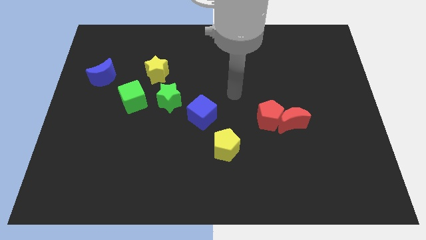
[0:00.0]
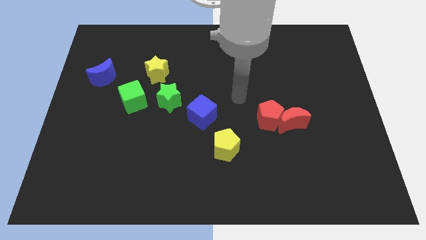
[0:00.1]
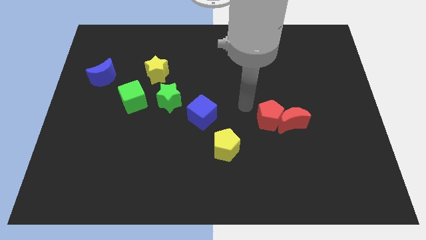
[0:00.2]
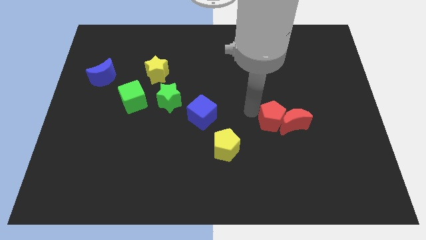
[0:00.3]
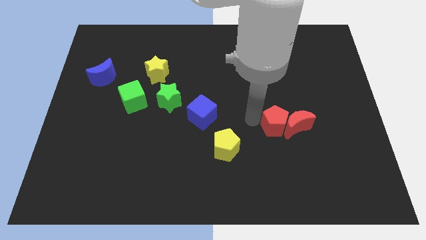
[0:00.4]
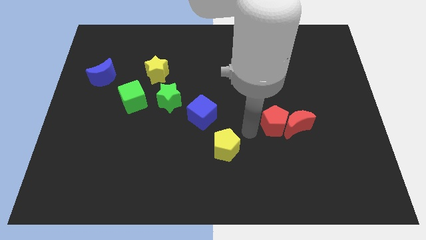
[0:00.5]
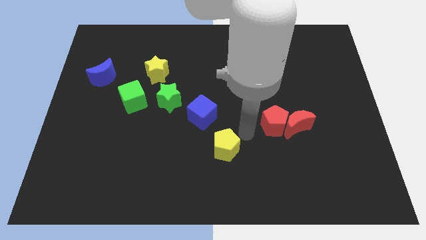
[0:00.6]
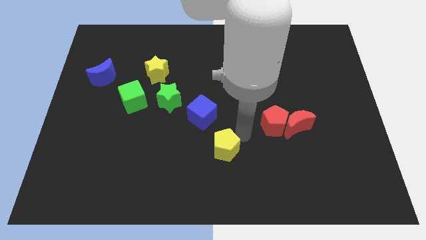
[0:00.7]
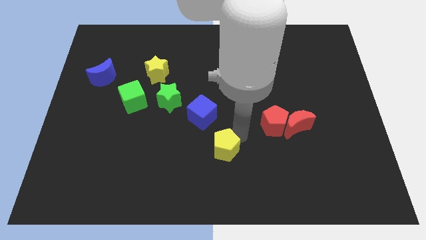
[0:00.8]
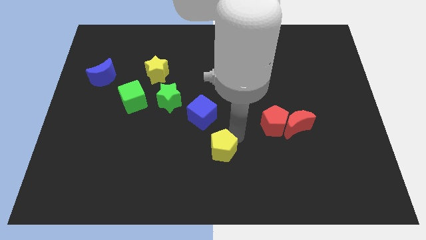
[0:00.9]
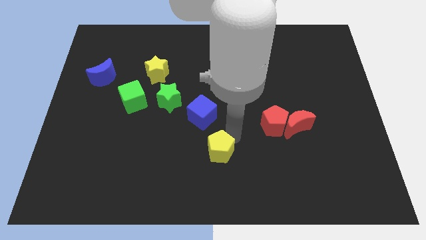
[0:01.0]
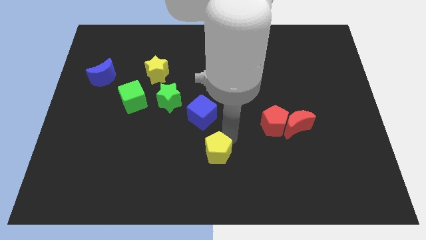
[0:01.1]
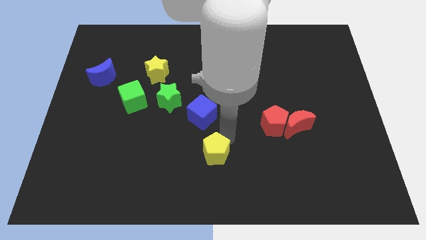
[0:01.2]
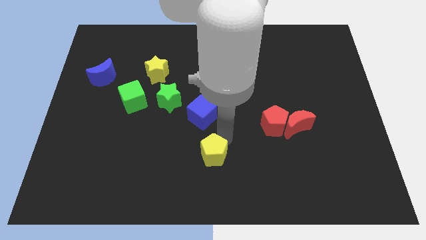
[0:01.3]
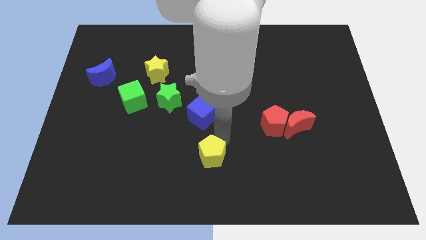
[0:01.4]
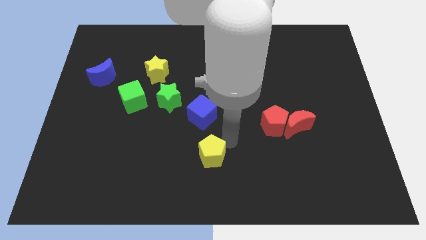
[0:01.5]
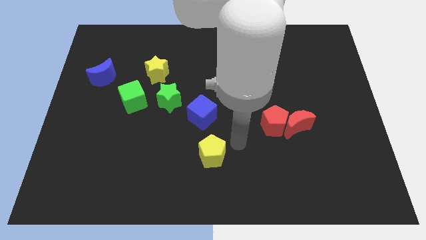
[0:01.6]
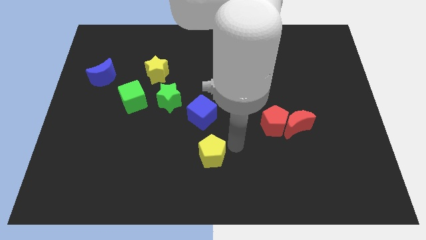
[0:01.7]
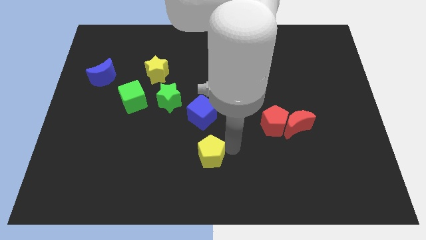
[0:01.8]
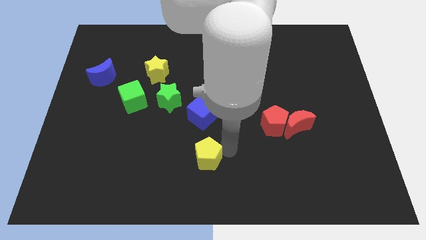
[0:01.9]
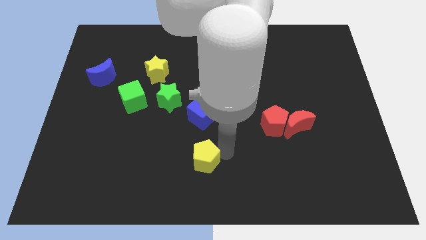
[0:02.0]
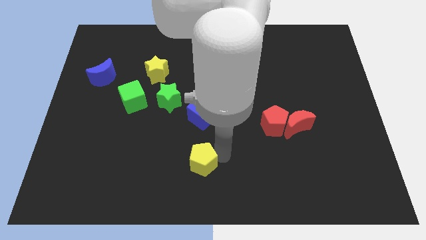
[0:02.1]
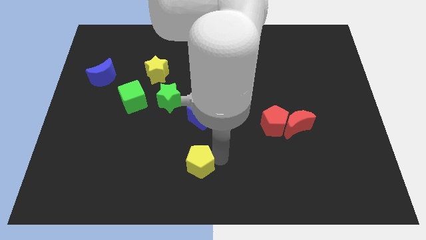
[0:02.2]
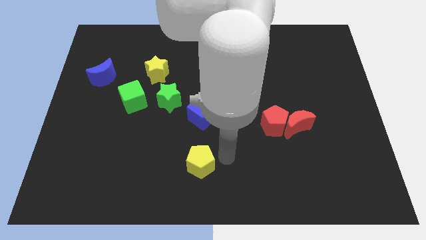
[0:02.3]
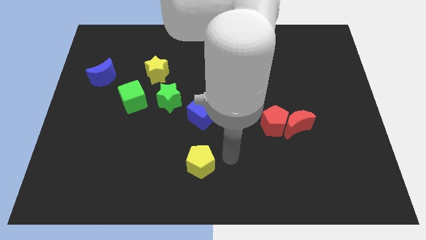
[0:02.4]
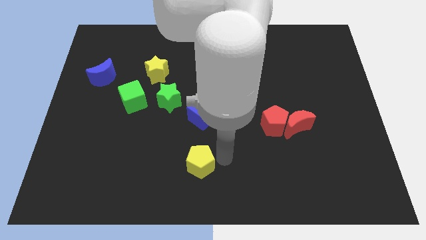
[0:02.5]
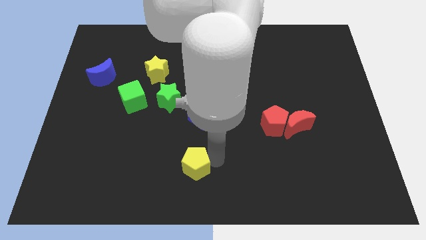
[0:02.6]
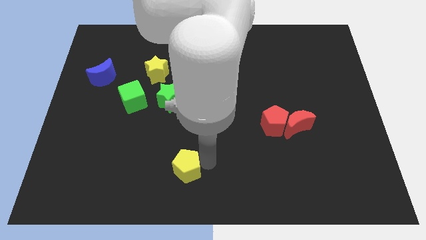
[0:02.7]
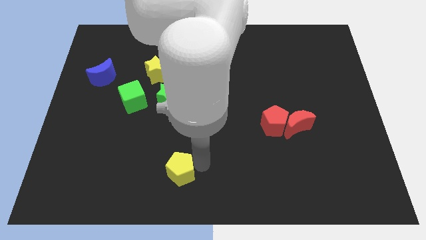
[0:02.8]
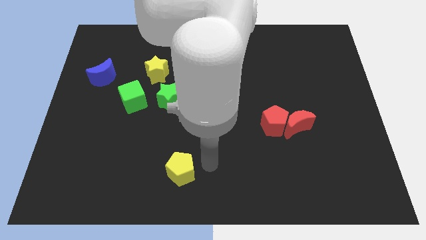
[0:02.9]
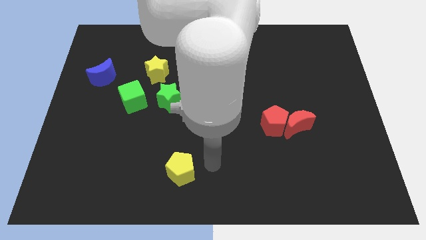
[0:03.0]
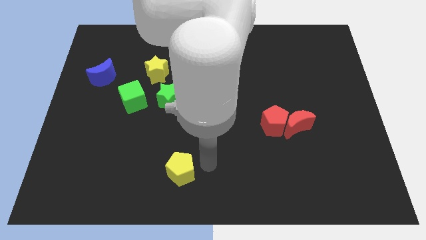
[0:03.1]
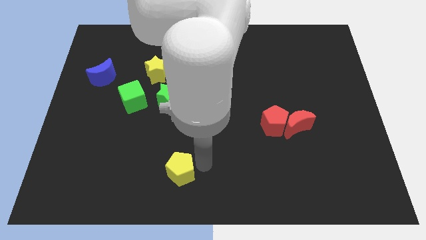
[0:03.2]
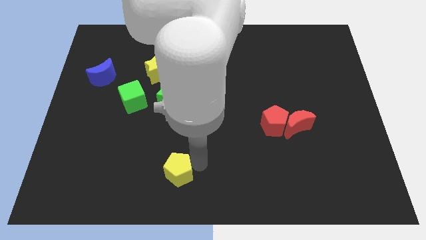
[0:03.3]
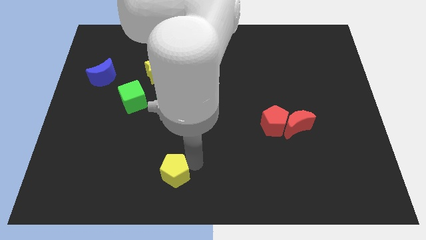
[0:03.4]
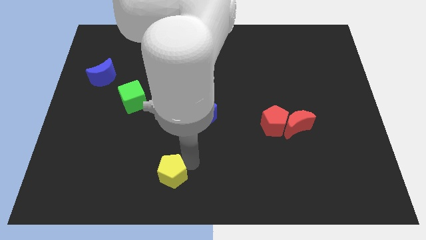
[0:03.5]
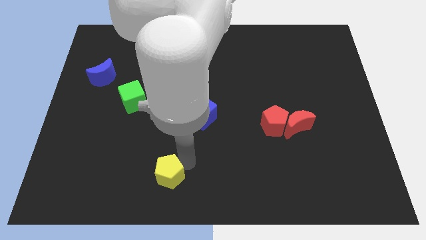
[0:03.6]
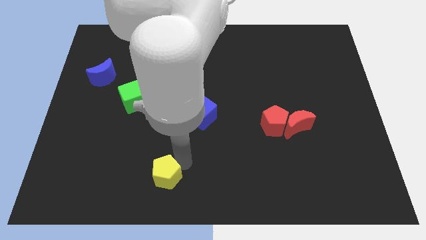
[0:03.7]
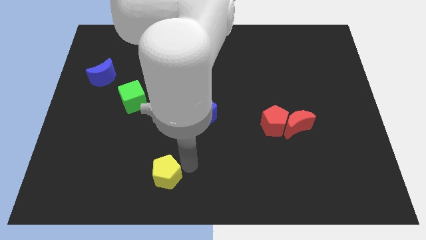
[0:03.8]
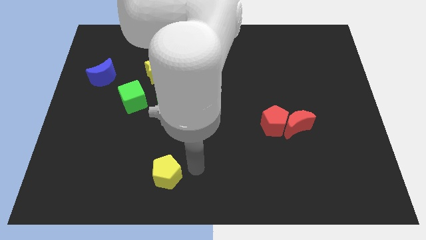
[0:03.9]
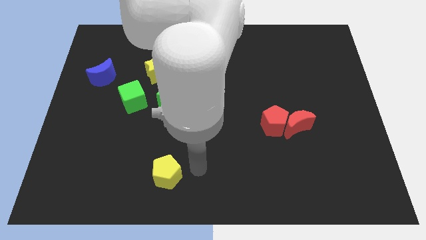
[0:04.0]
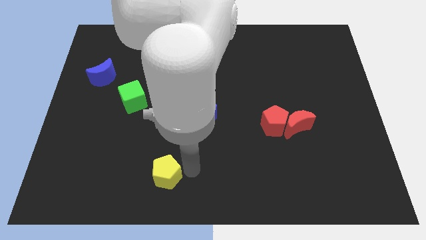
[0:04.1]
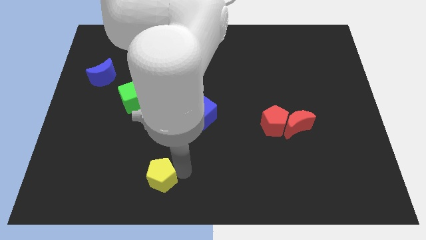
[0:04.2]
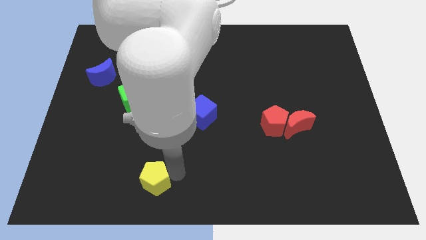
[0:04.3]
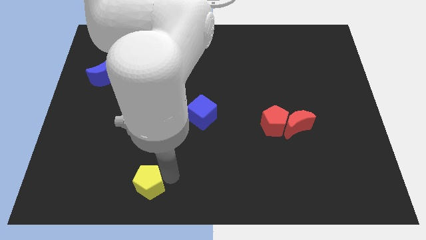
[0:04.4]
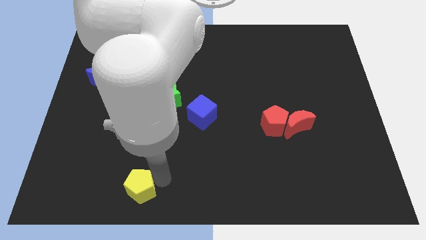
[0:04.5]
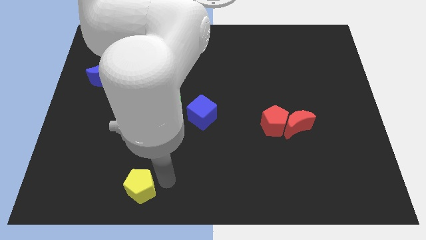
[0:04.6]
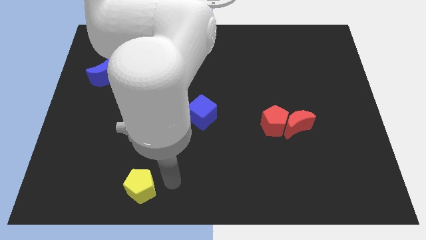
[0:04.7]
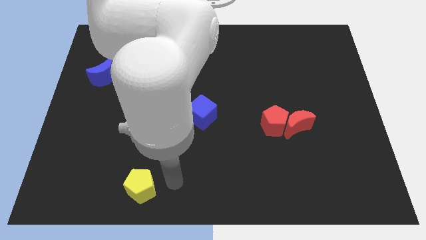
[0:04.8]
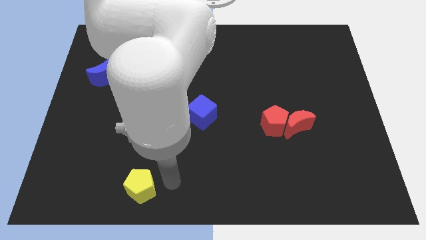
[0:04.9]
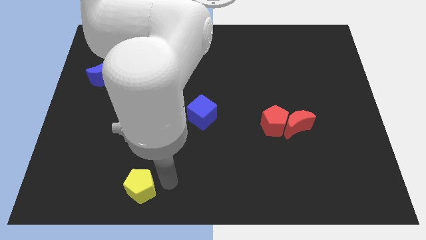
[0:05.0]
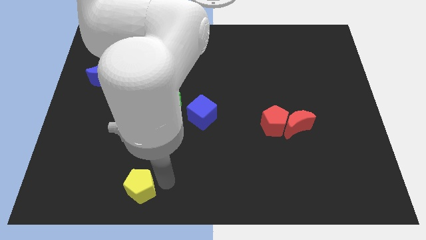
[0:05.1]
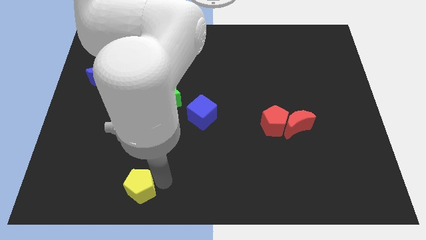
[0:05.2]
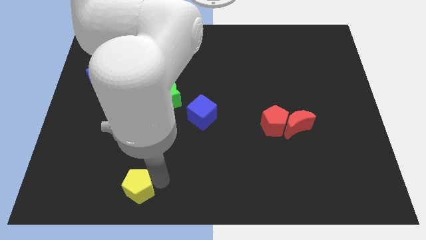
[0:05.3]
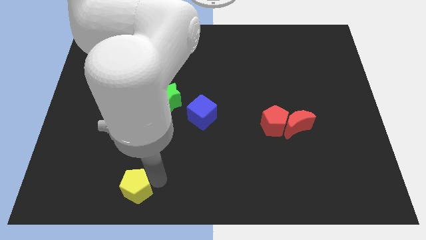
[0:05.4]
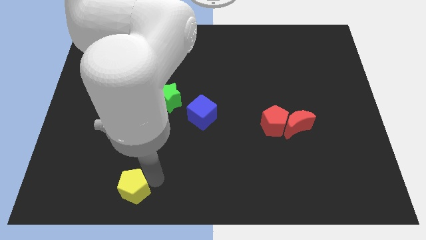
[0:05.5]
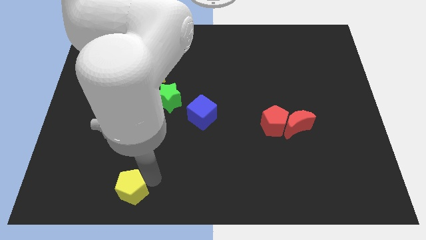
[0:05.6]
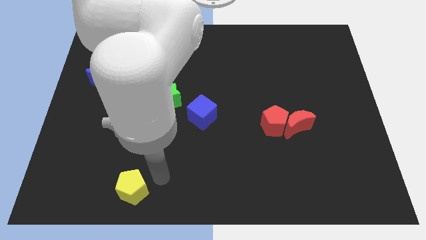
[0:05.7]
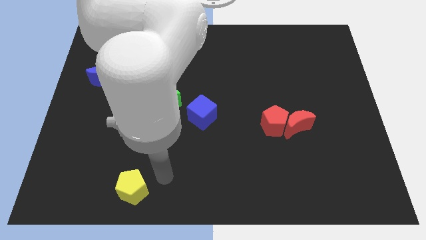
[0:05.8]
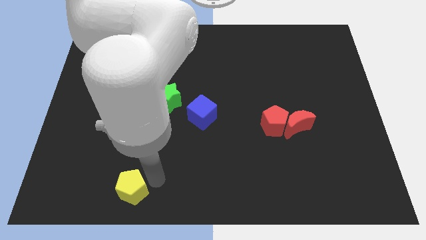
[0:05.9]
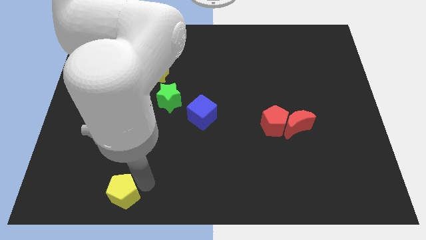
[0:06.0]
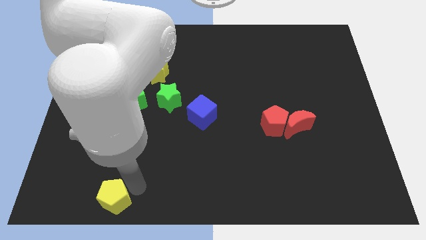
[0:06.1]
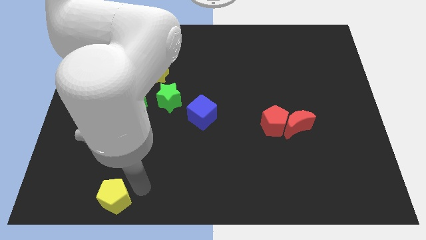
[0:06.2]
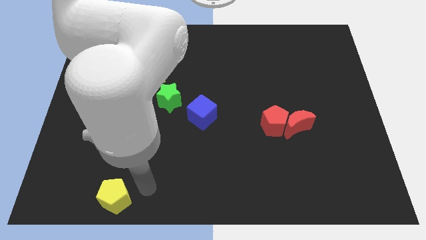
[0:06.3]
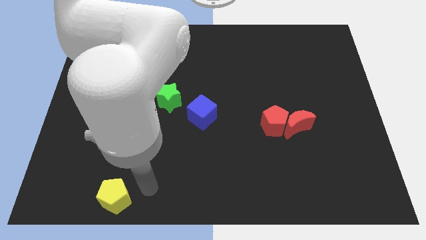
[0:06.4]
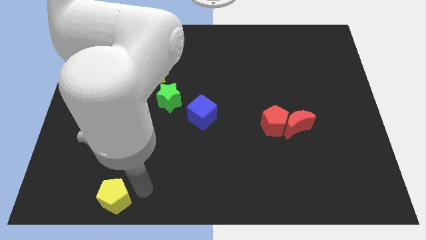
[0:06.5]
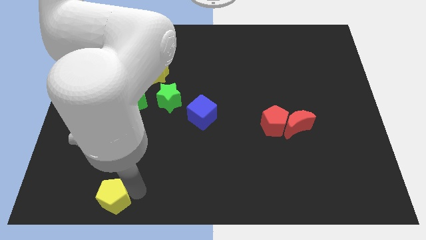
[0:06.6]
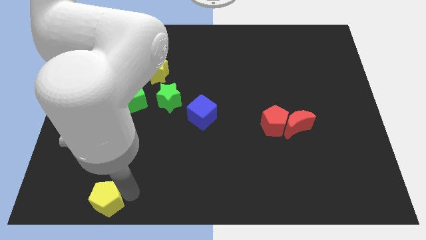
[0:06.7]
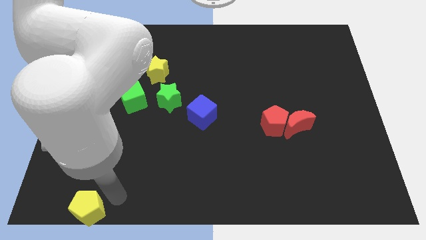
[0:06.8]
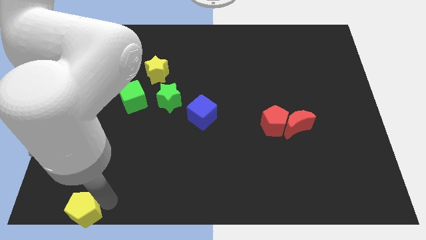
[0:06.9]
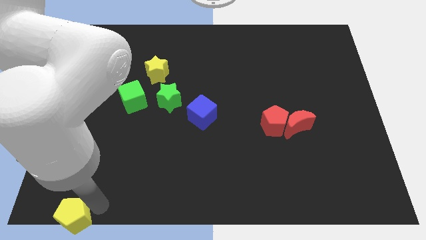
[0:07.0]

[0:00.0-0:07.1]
slide the yellow pentagon to the lower left corner
